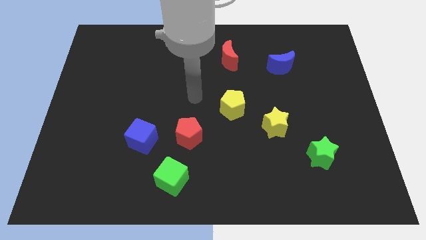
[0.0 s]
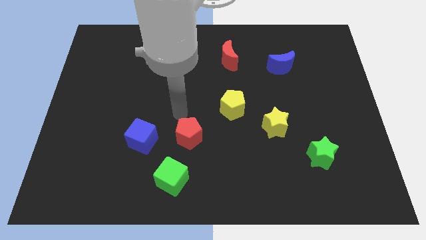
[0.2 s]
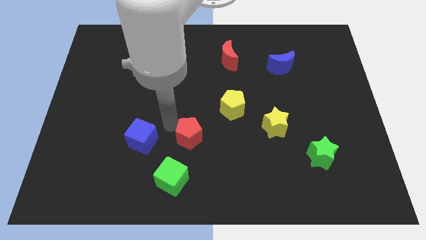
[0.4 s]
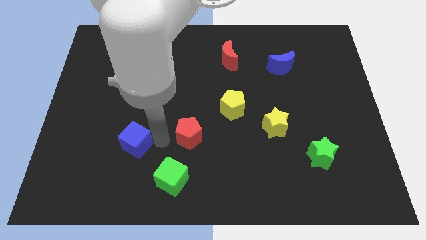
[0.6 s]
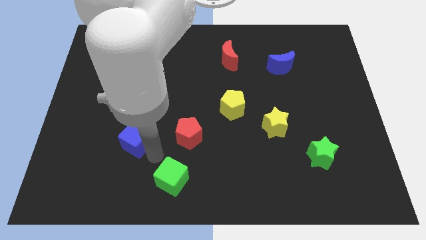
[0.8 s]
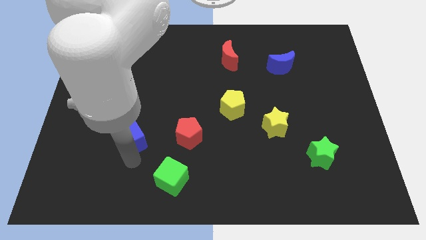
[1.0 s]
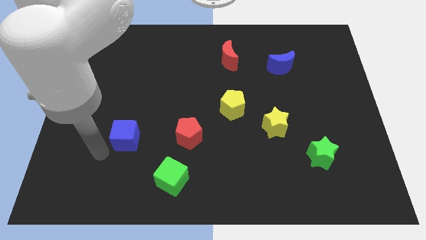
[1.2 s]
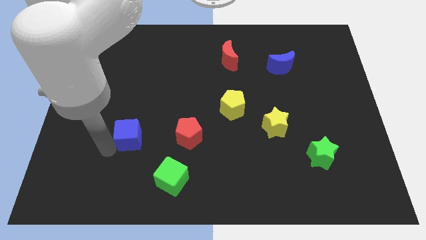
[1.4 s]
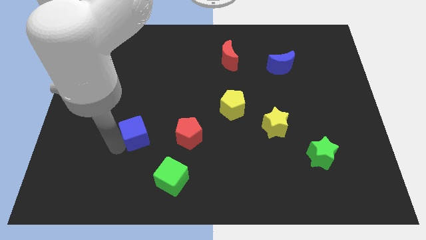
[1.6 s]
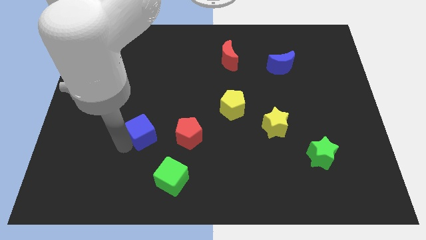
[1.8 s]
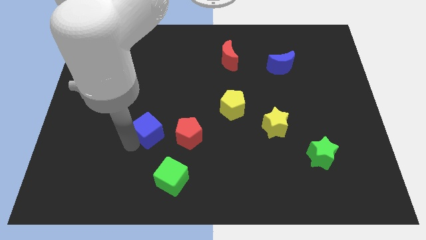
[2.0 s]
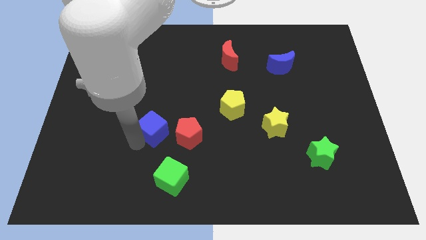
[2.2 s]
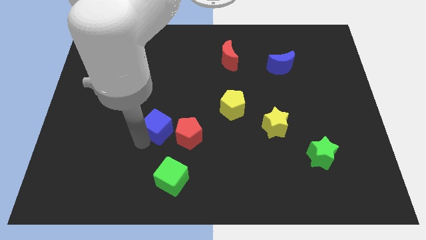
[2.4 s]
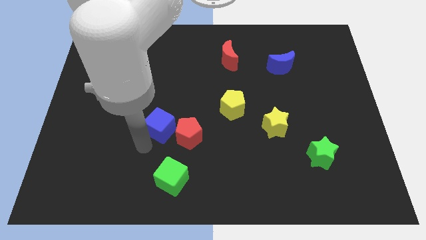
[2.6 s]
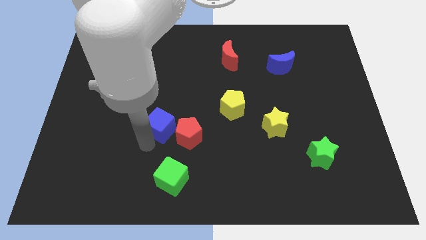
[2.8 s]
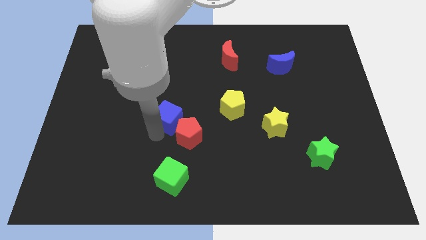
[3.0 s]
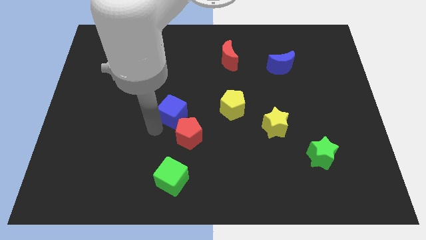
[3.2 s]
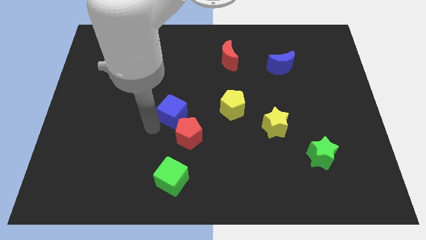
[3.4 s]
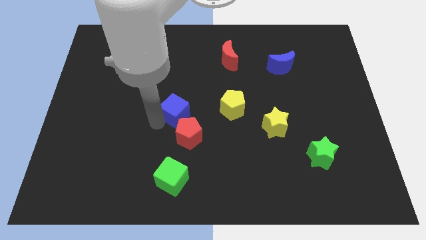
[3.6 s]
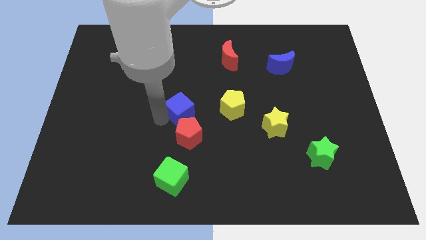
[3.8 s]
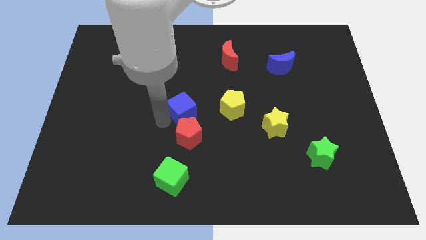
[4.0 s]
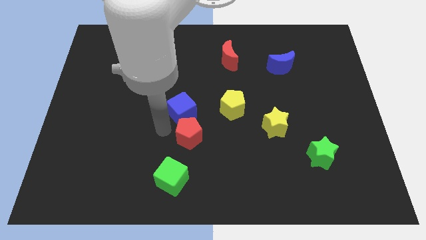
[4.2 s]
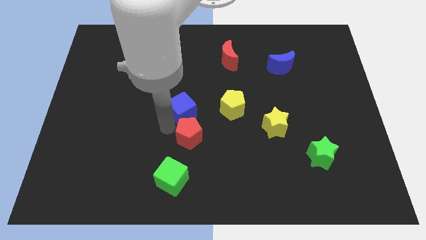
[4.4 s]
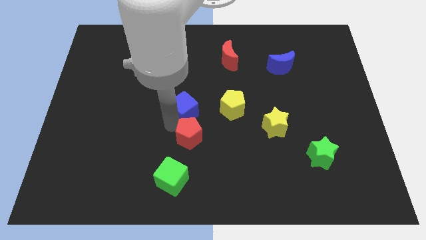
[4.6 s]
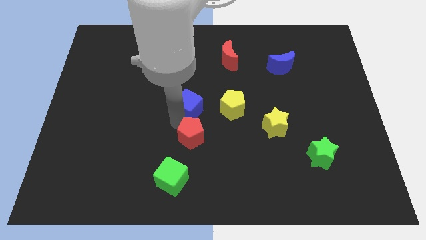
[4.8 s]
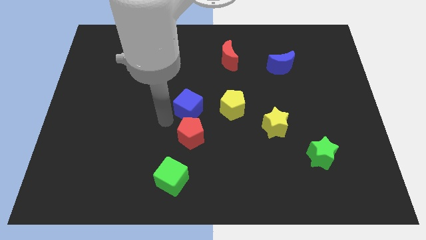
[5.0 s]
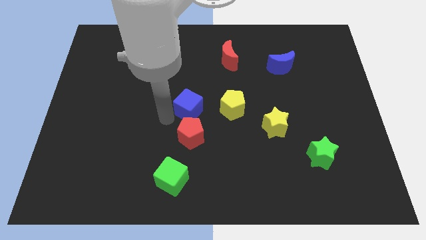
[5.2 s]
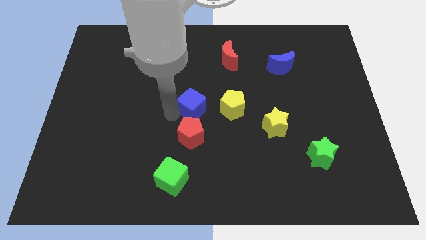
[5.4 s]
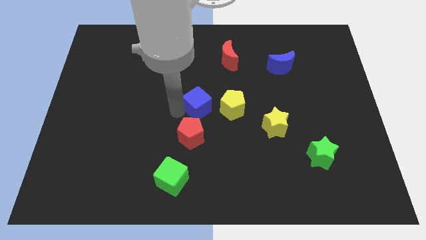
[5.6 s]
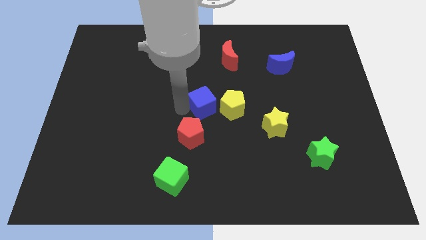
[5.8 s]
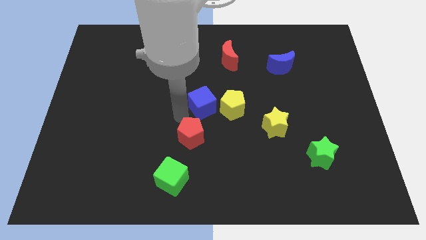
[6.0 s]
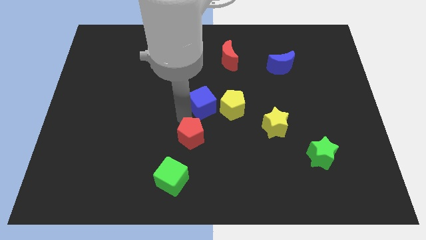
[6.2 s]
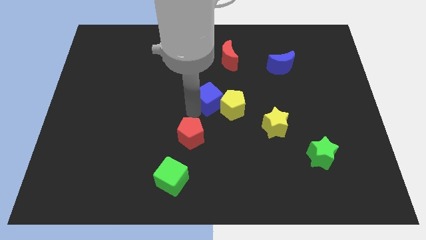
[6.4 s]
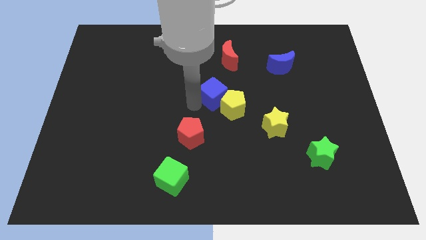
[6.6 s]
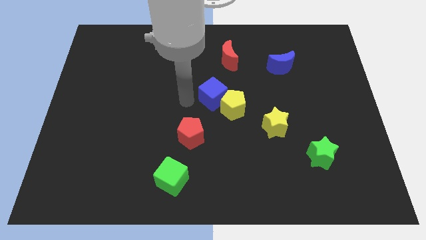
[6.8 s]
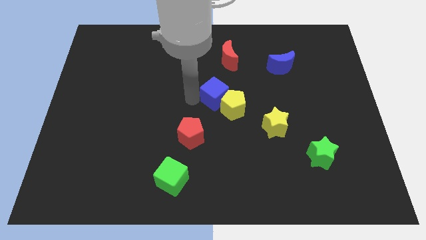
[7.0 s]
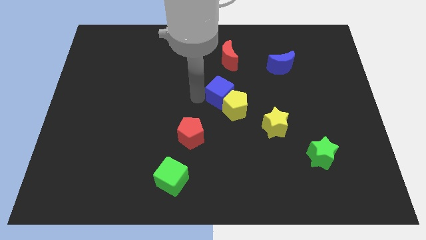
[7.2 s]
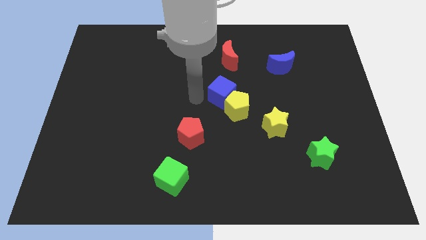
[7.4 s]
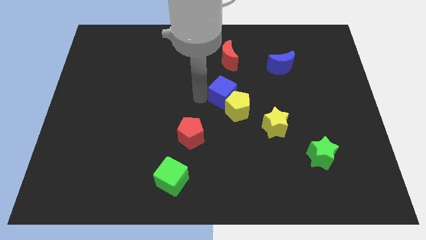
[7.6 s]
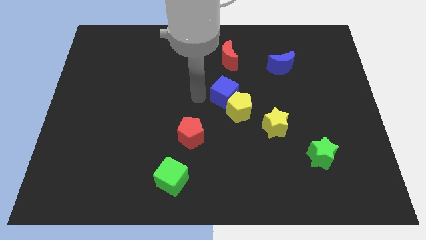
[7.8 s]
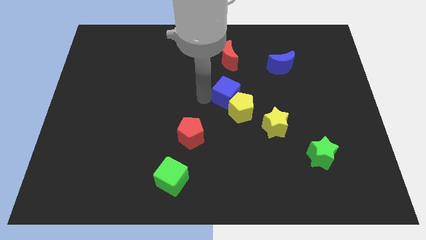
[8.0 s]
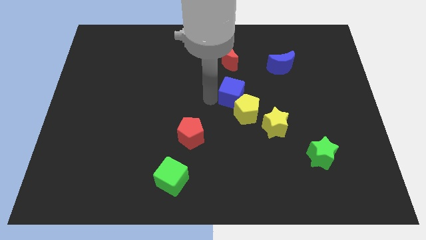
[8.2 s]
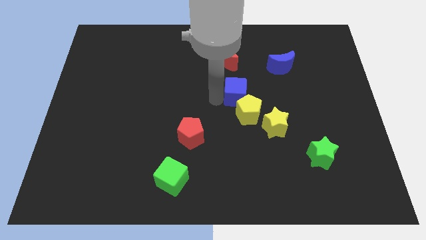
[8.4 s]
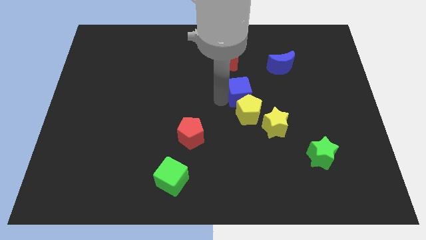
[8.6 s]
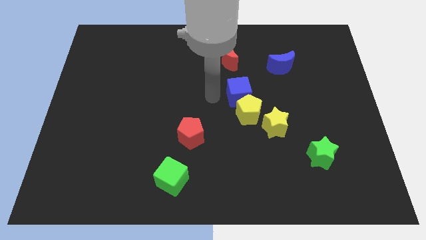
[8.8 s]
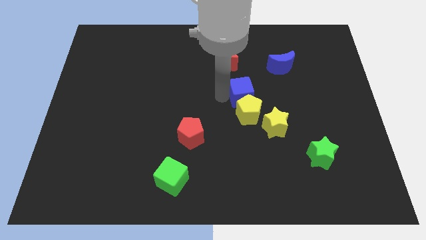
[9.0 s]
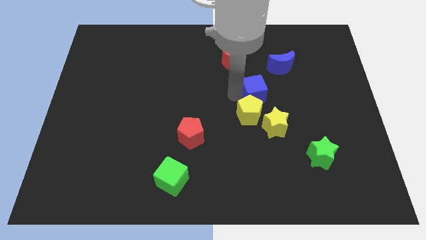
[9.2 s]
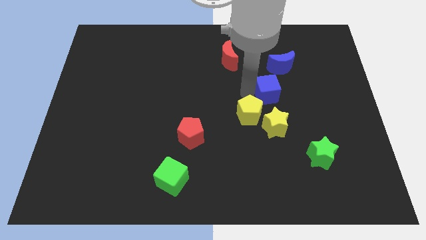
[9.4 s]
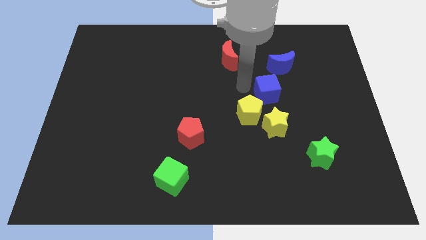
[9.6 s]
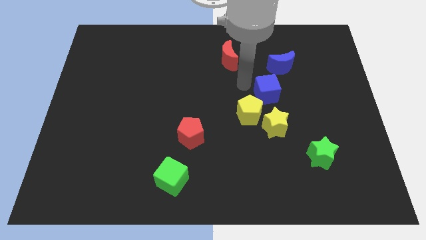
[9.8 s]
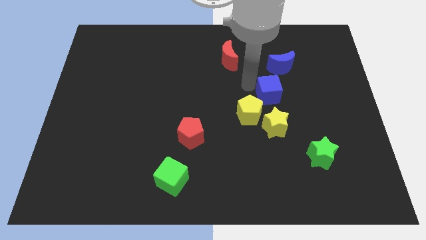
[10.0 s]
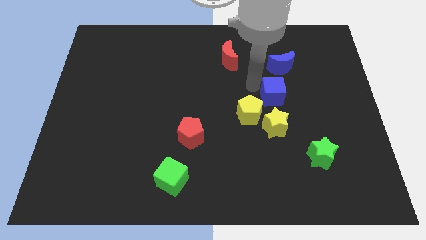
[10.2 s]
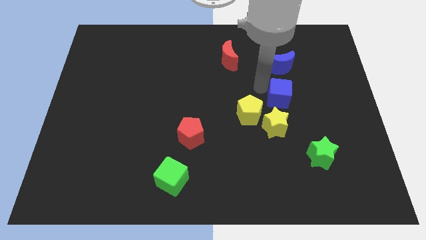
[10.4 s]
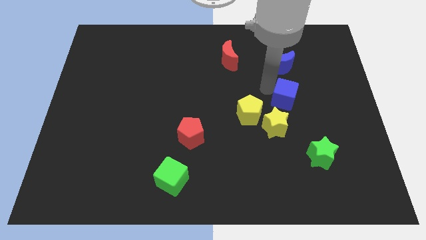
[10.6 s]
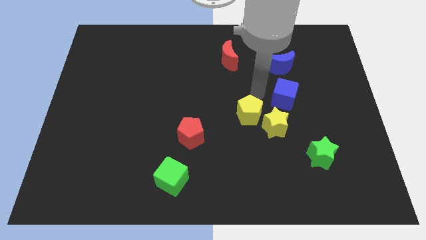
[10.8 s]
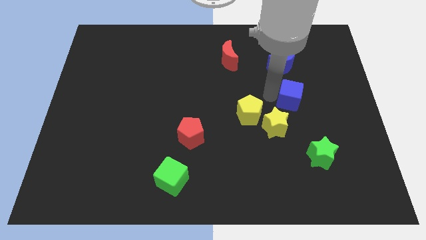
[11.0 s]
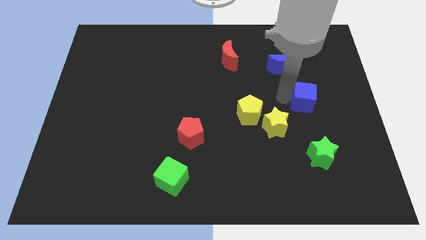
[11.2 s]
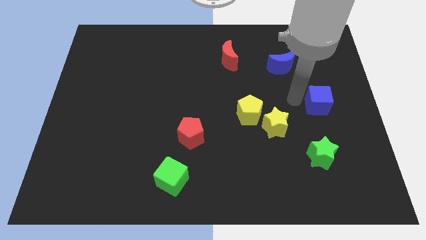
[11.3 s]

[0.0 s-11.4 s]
move the blue cube to the center right
